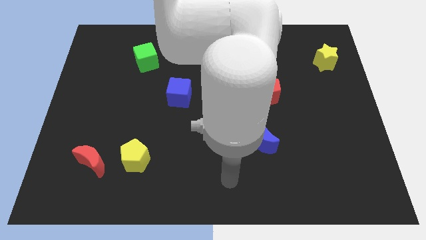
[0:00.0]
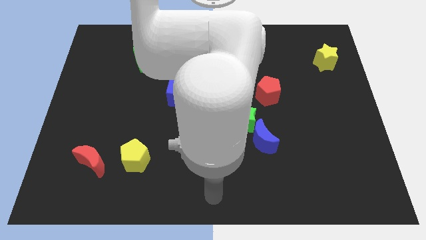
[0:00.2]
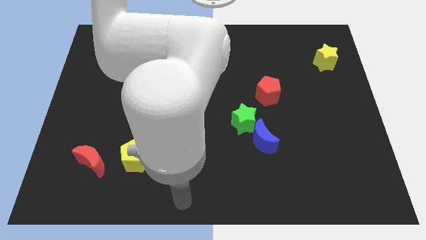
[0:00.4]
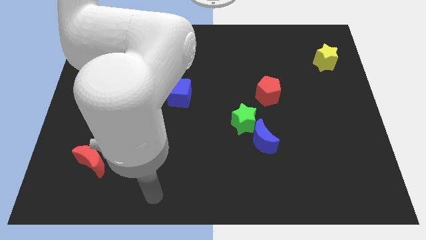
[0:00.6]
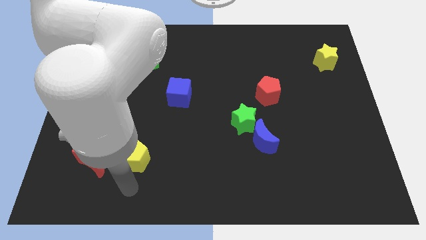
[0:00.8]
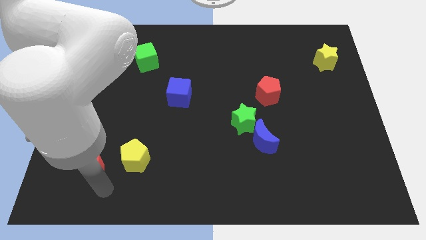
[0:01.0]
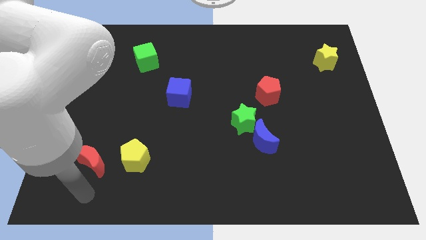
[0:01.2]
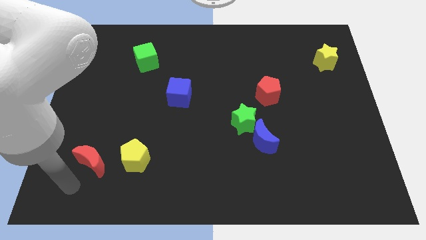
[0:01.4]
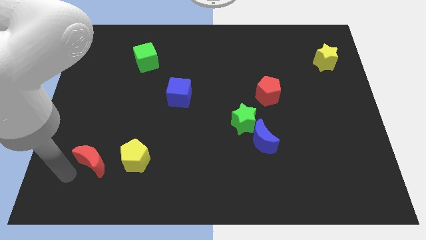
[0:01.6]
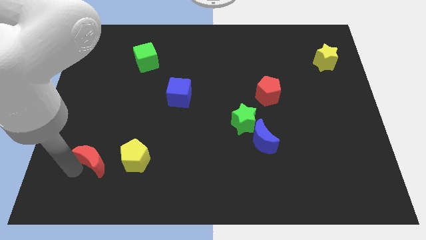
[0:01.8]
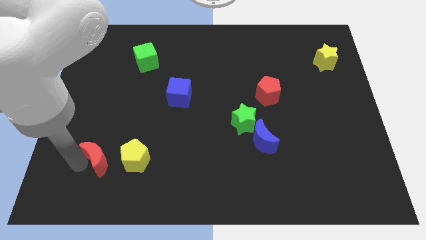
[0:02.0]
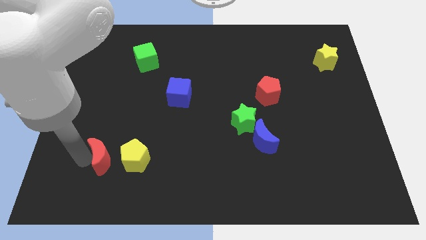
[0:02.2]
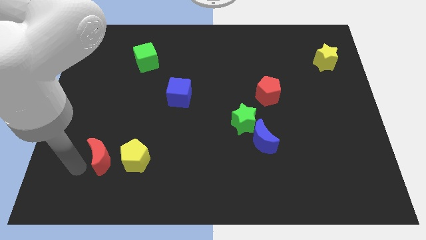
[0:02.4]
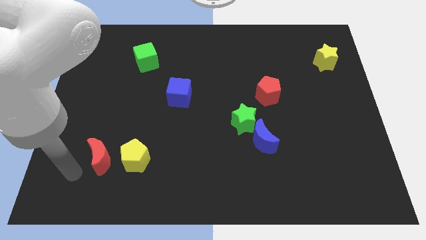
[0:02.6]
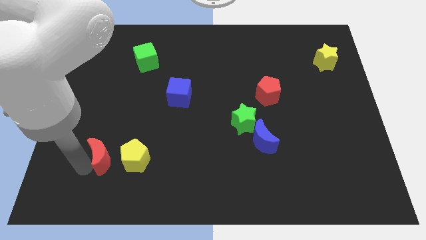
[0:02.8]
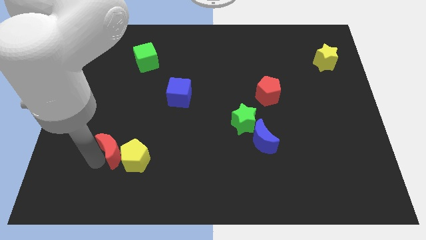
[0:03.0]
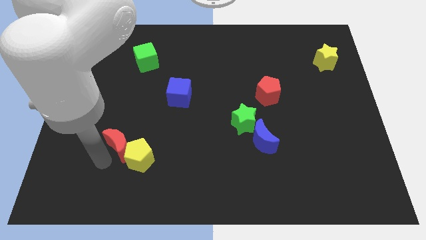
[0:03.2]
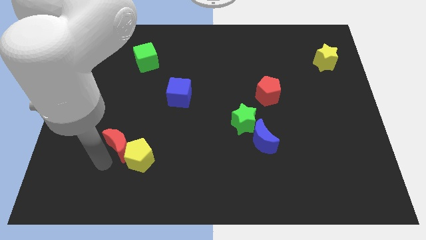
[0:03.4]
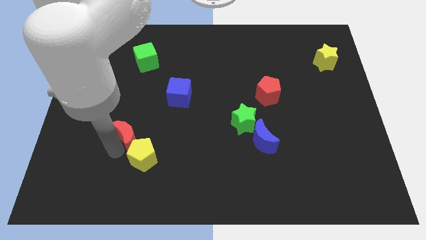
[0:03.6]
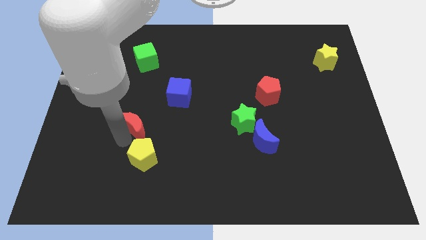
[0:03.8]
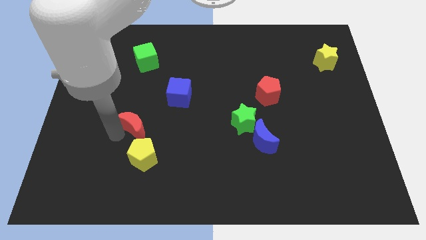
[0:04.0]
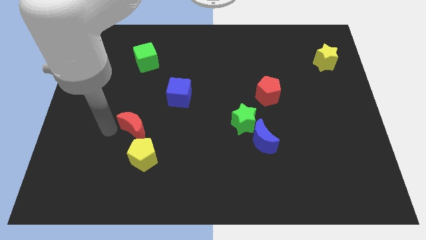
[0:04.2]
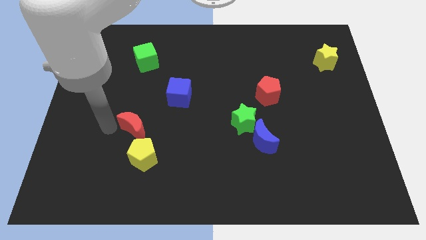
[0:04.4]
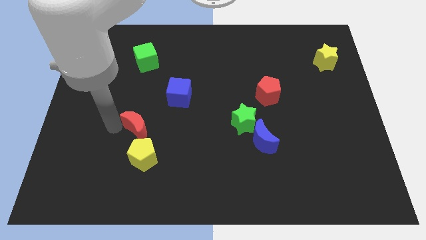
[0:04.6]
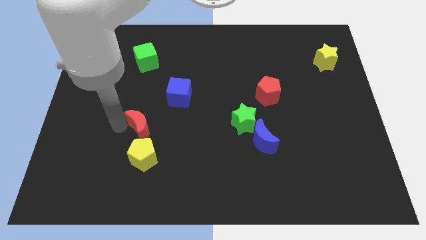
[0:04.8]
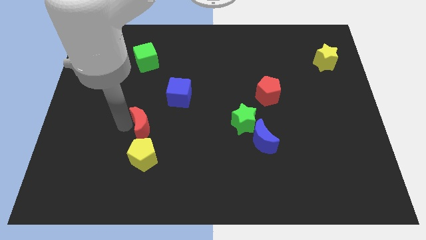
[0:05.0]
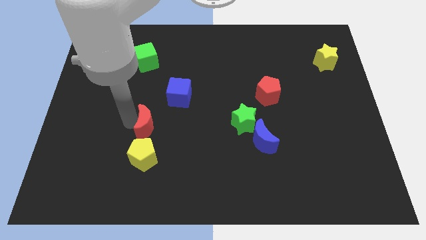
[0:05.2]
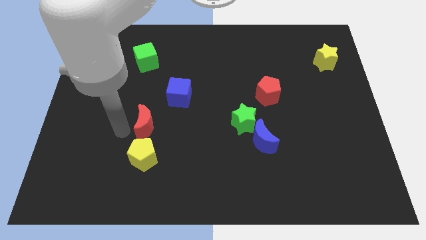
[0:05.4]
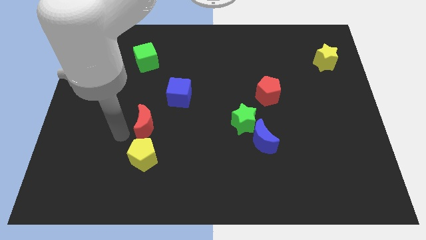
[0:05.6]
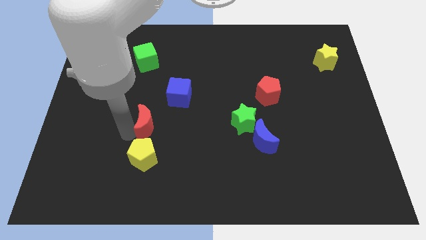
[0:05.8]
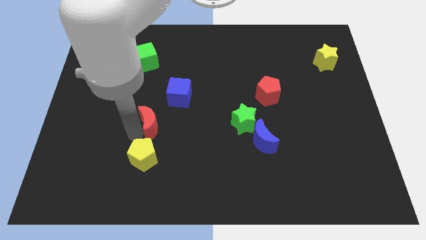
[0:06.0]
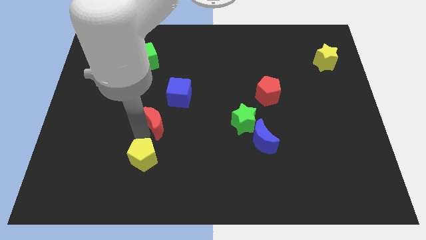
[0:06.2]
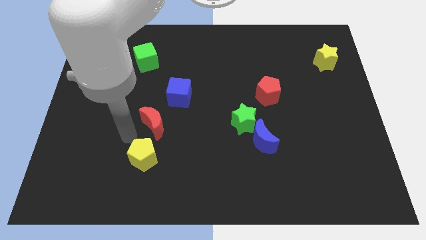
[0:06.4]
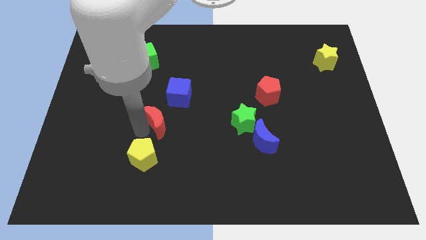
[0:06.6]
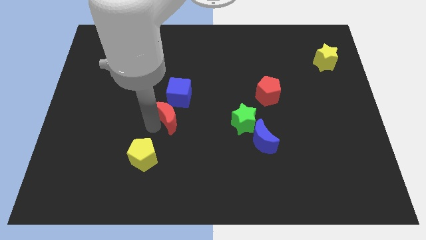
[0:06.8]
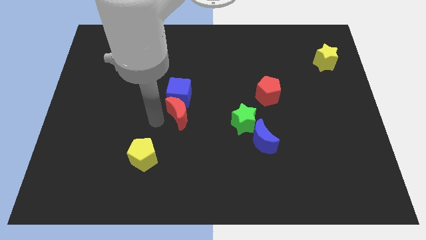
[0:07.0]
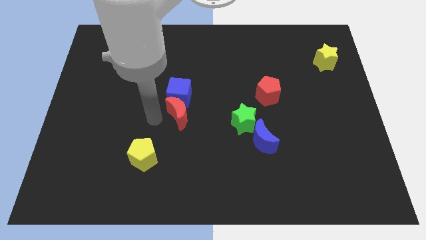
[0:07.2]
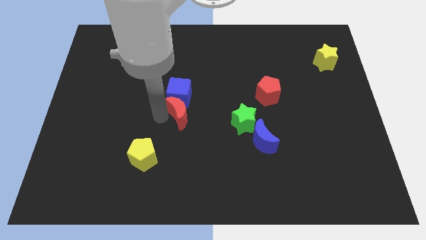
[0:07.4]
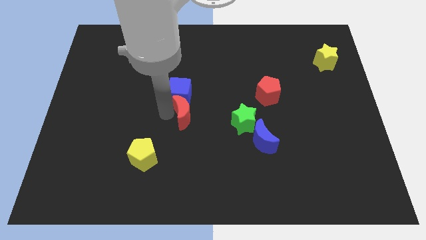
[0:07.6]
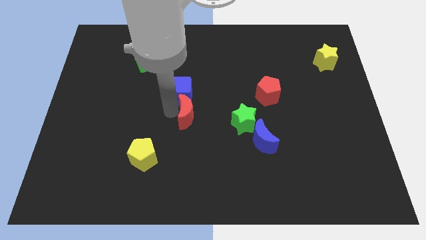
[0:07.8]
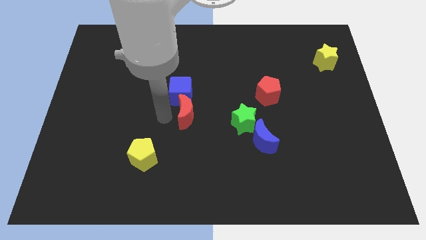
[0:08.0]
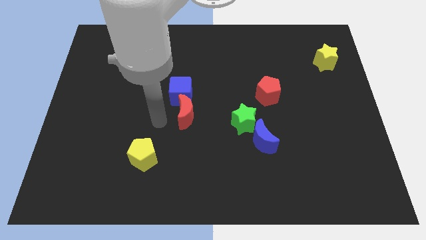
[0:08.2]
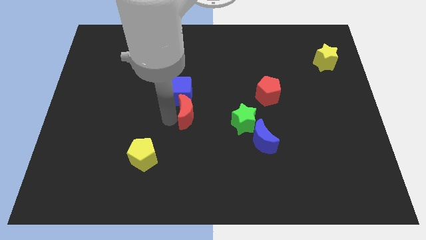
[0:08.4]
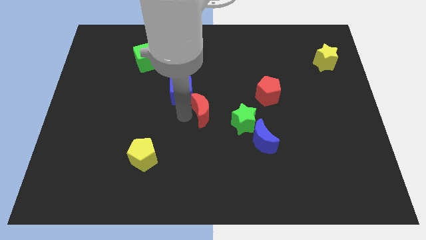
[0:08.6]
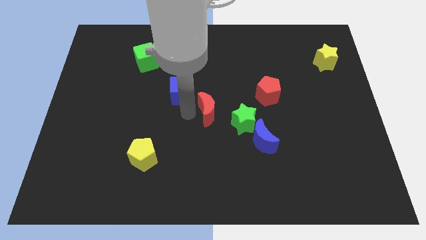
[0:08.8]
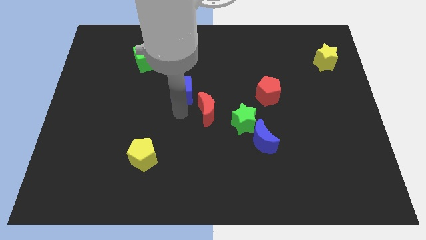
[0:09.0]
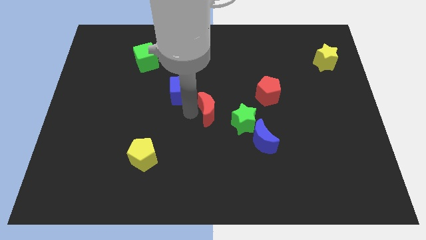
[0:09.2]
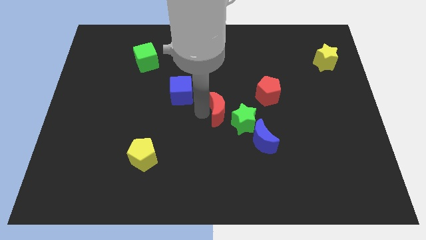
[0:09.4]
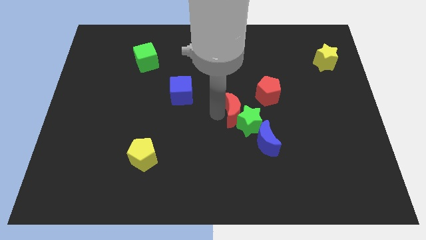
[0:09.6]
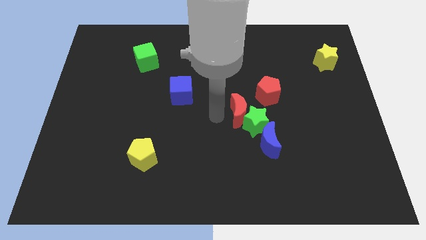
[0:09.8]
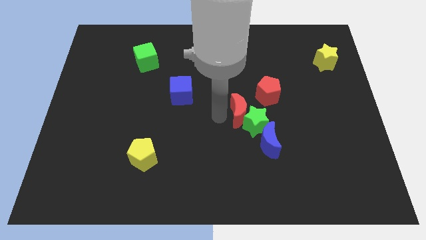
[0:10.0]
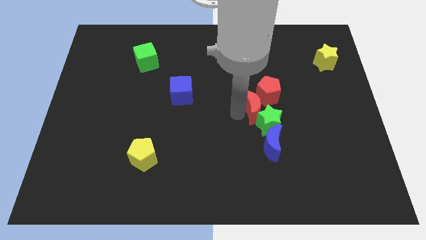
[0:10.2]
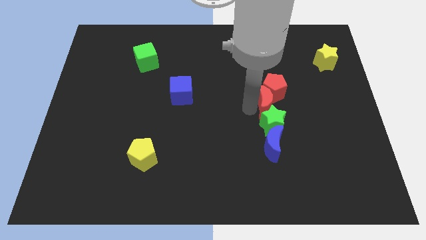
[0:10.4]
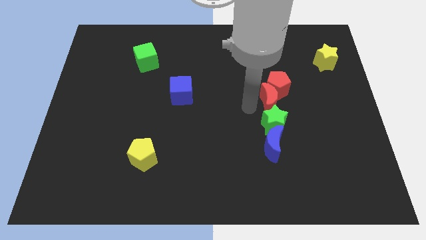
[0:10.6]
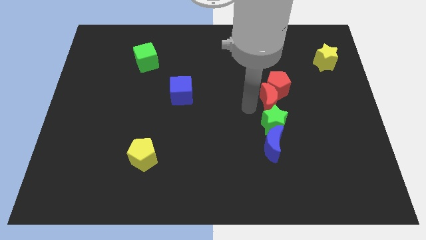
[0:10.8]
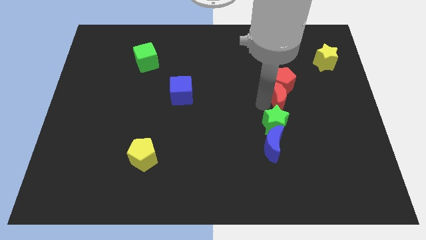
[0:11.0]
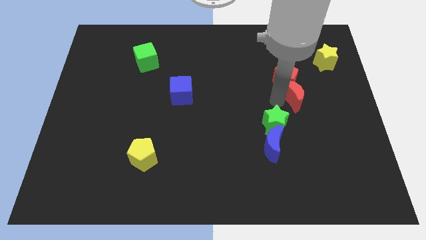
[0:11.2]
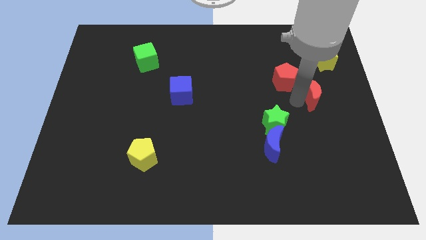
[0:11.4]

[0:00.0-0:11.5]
move the red moon just right of the red pentagon

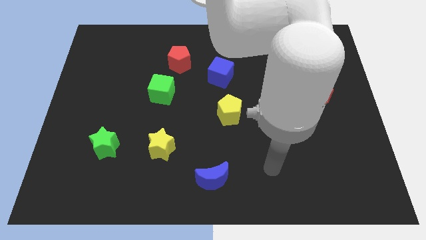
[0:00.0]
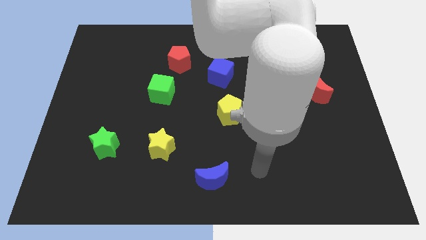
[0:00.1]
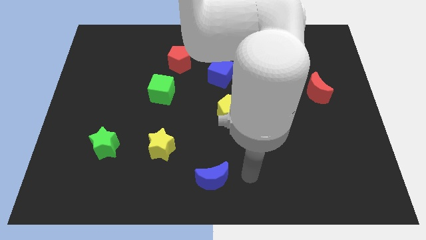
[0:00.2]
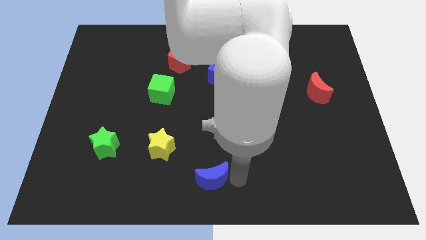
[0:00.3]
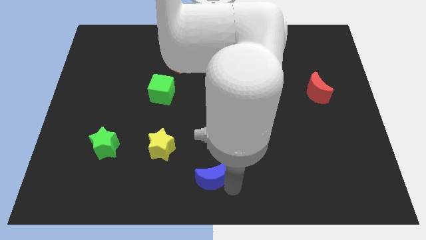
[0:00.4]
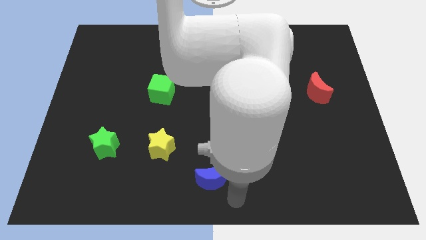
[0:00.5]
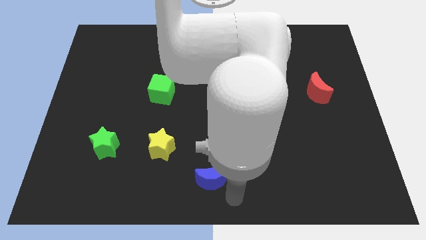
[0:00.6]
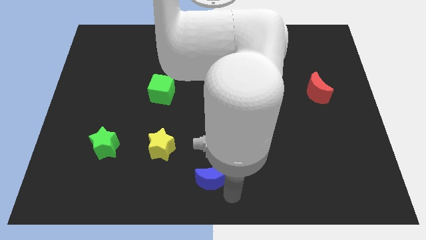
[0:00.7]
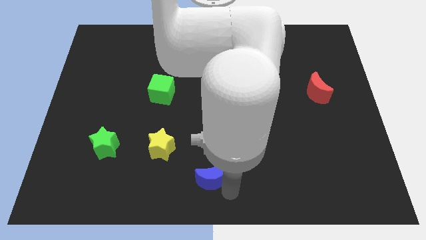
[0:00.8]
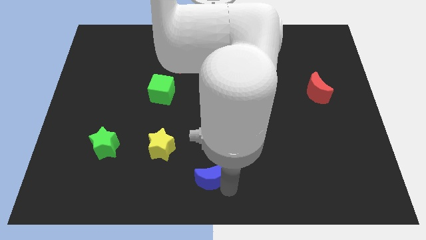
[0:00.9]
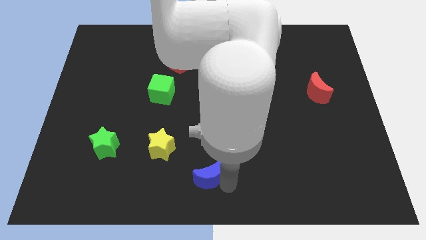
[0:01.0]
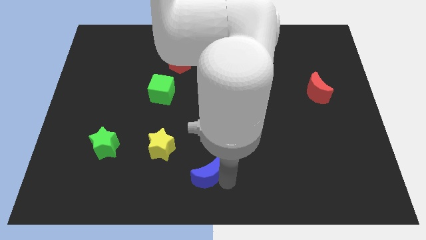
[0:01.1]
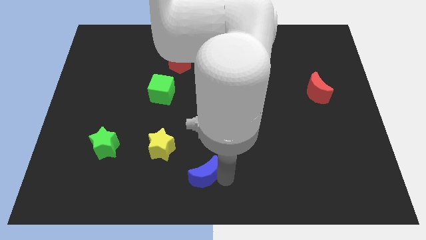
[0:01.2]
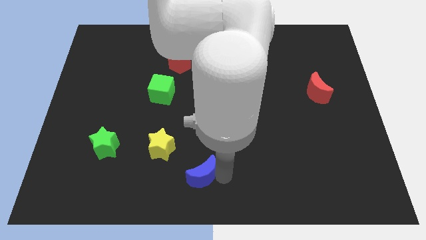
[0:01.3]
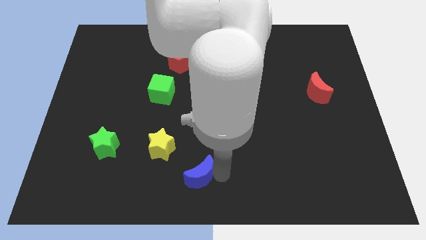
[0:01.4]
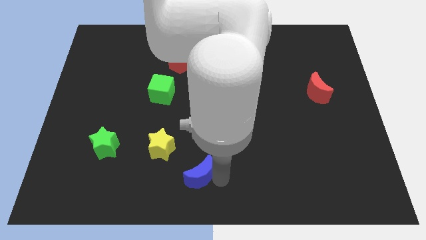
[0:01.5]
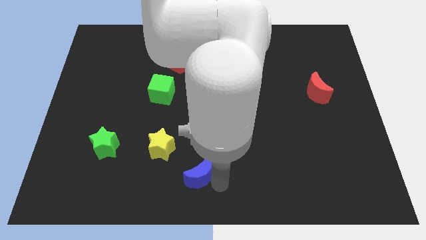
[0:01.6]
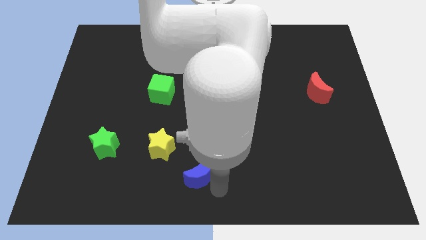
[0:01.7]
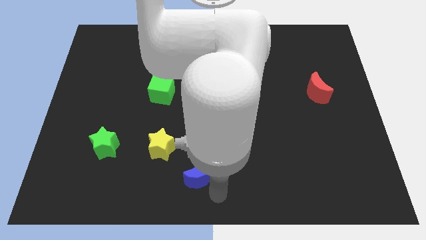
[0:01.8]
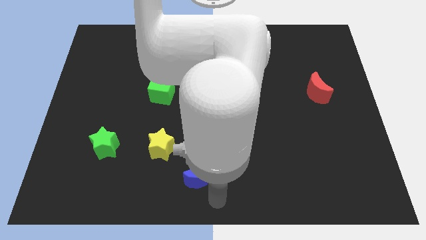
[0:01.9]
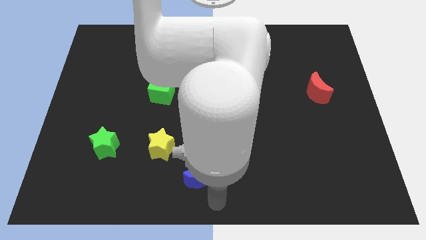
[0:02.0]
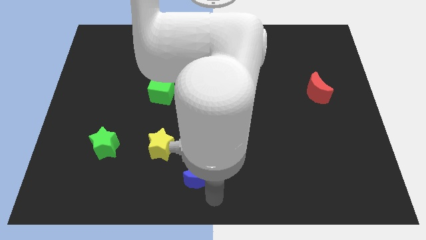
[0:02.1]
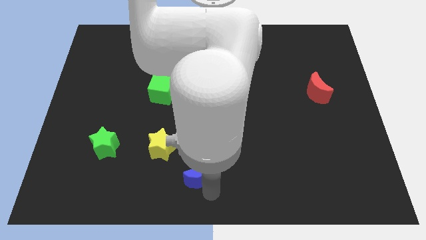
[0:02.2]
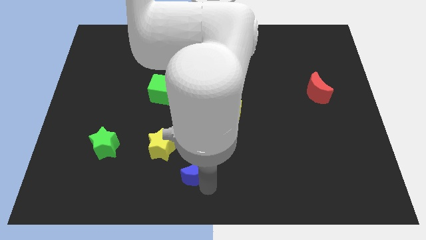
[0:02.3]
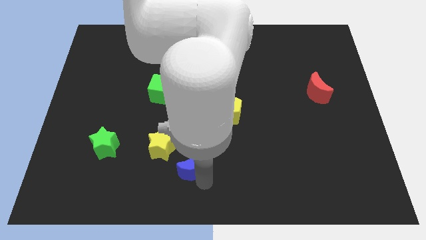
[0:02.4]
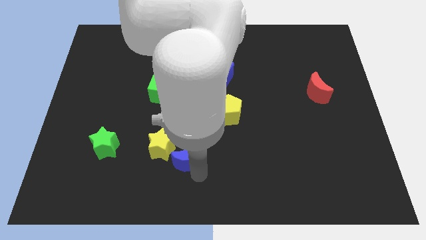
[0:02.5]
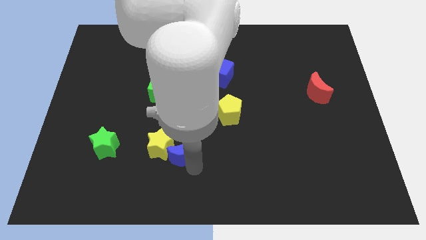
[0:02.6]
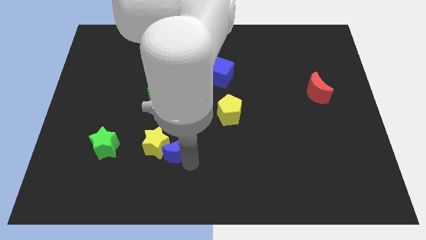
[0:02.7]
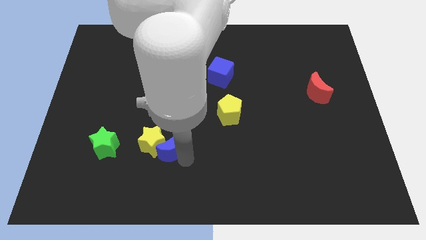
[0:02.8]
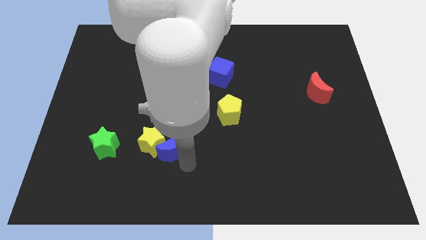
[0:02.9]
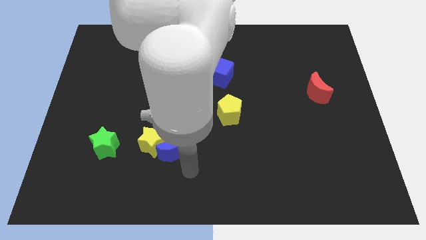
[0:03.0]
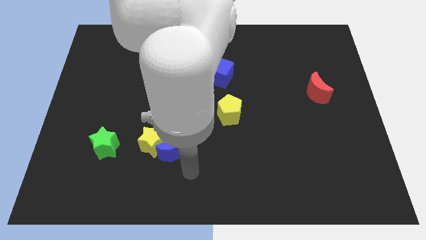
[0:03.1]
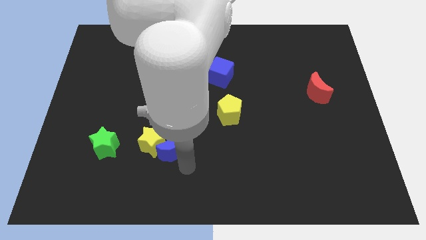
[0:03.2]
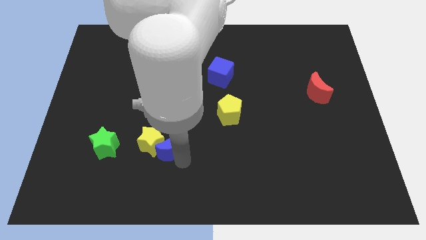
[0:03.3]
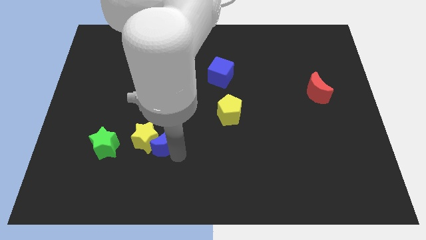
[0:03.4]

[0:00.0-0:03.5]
put the blue moon to the bottom of the green cube
